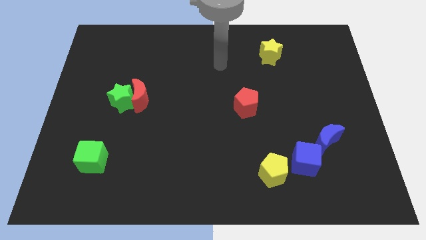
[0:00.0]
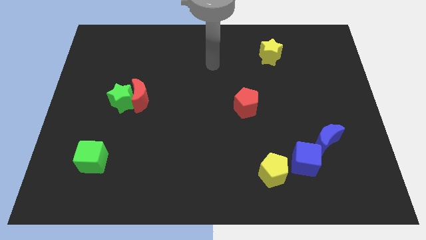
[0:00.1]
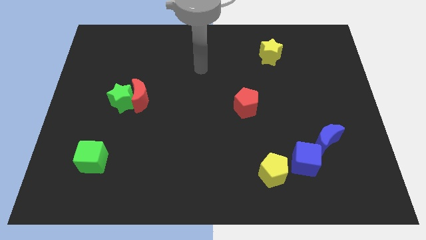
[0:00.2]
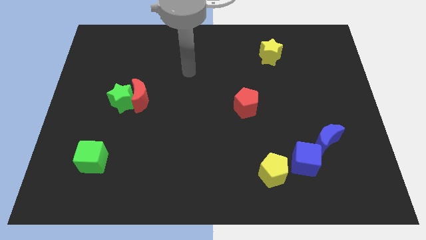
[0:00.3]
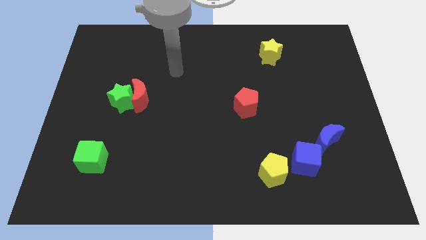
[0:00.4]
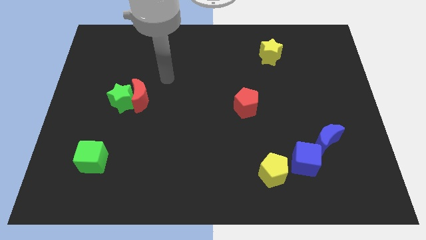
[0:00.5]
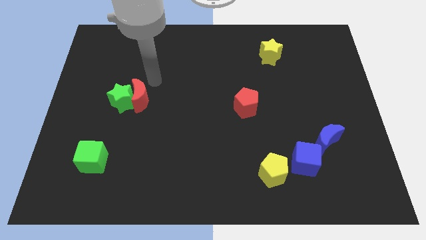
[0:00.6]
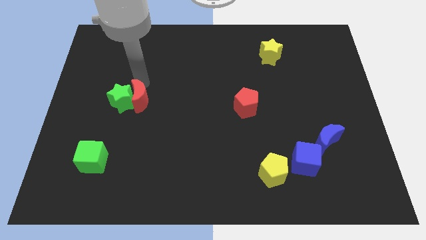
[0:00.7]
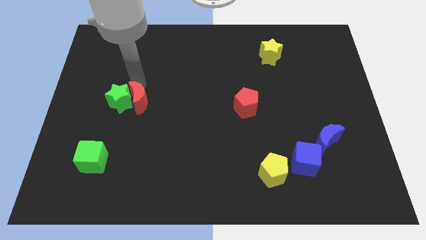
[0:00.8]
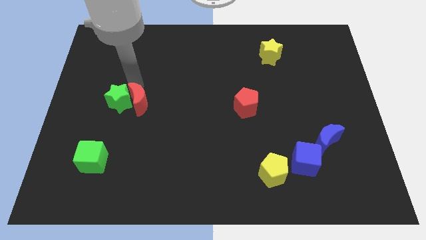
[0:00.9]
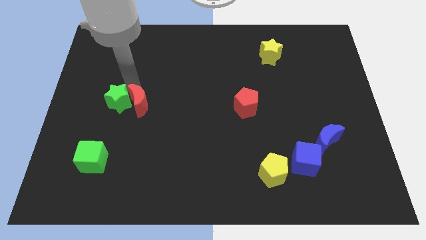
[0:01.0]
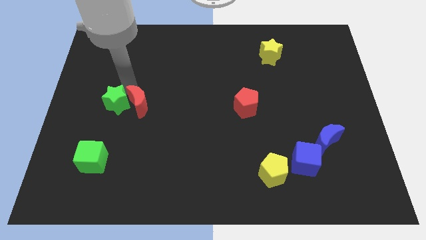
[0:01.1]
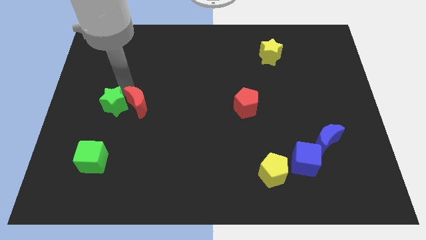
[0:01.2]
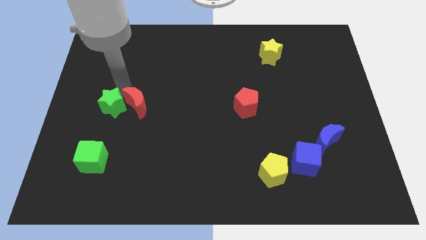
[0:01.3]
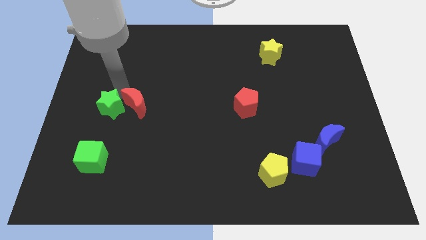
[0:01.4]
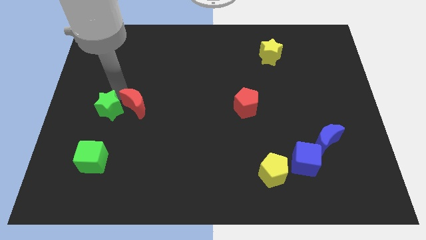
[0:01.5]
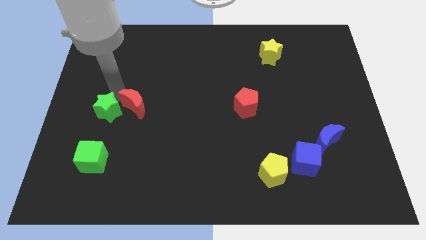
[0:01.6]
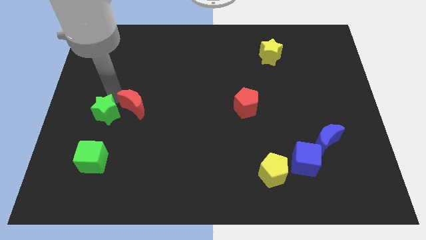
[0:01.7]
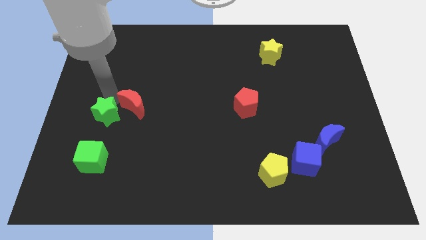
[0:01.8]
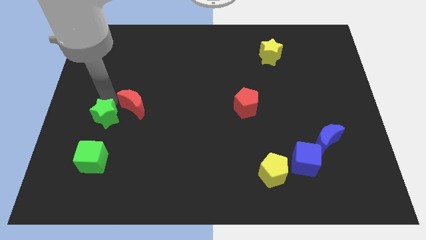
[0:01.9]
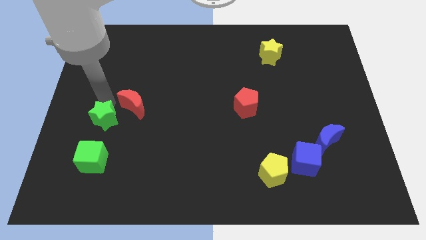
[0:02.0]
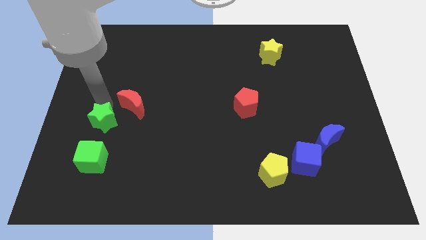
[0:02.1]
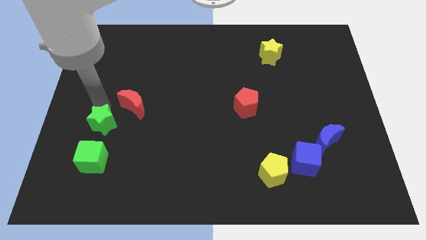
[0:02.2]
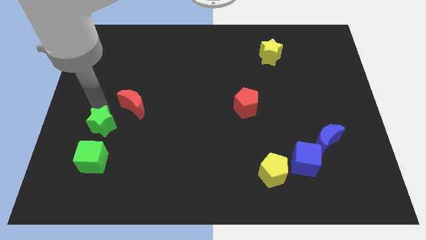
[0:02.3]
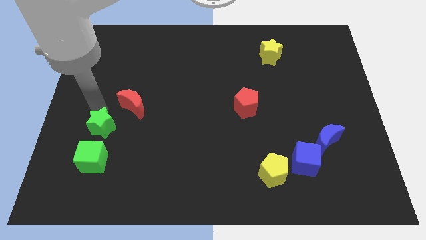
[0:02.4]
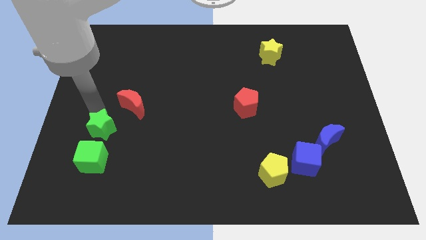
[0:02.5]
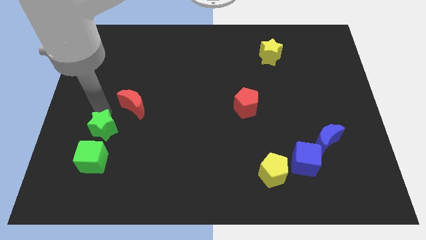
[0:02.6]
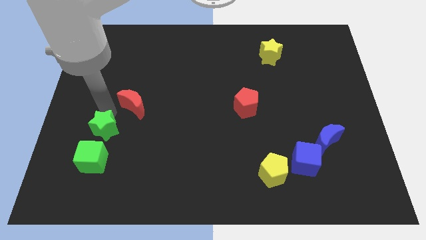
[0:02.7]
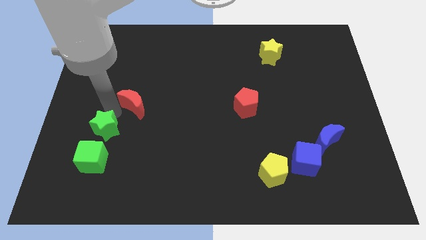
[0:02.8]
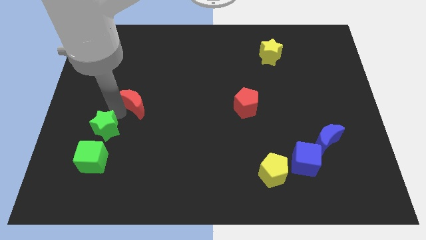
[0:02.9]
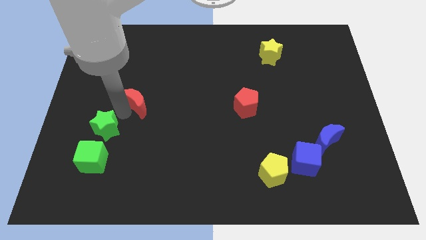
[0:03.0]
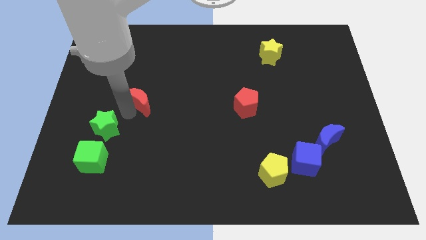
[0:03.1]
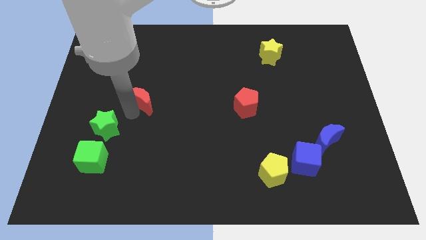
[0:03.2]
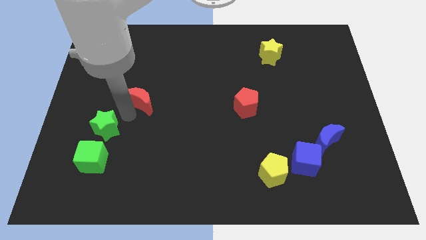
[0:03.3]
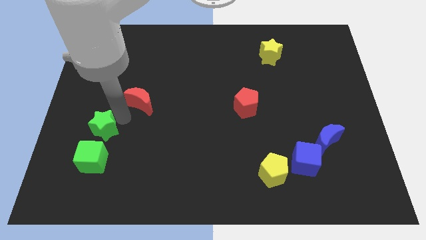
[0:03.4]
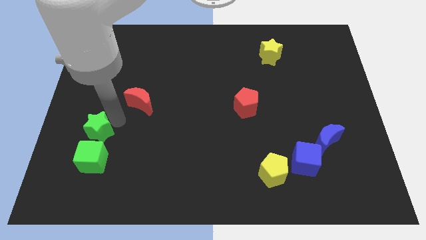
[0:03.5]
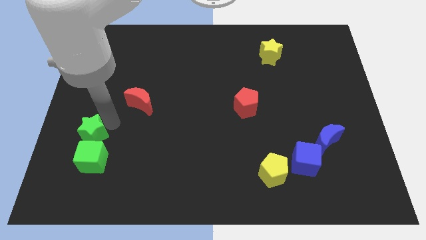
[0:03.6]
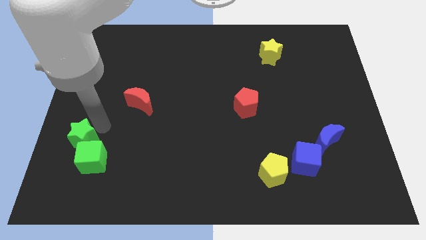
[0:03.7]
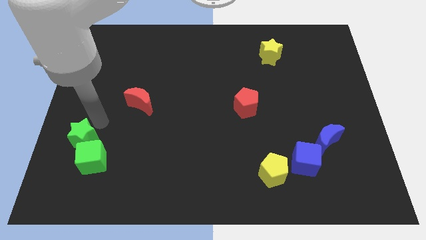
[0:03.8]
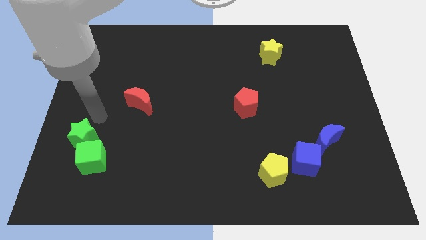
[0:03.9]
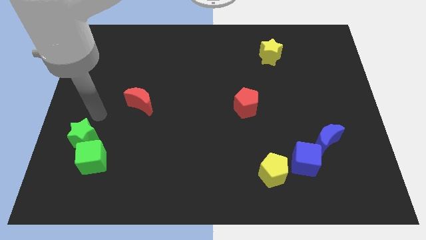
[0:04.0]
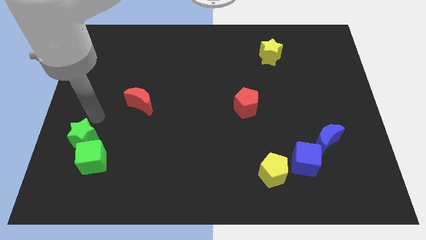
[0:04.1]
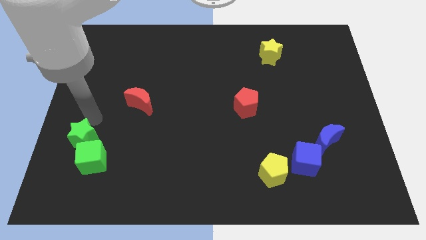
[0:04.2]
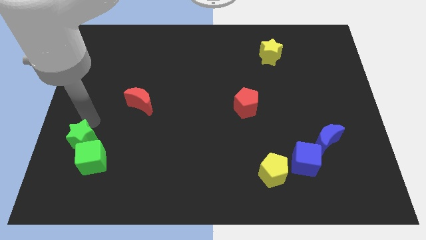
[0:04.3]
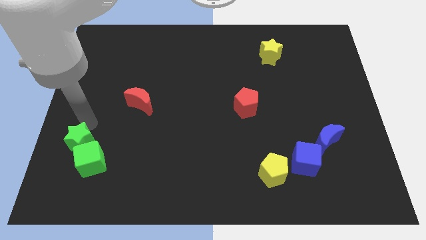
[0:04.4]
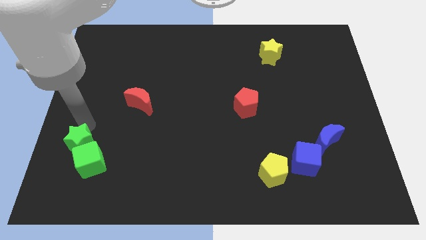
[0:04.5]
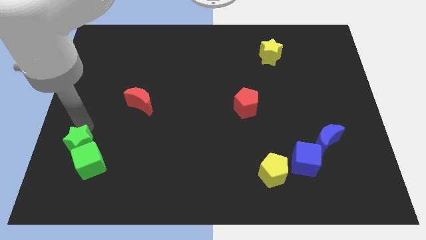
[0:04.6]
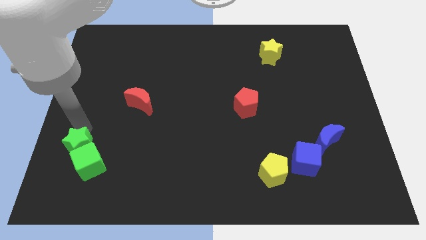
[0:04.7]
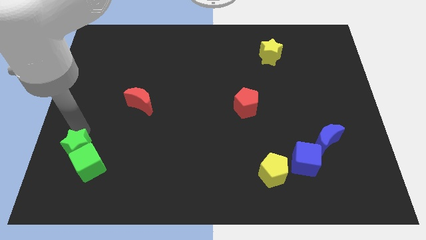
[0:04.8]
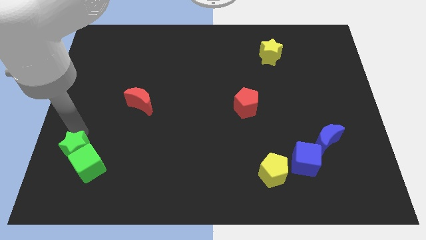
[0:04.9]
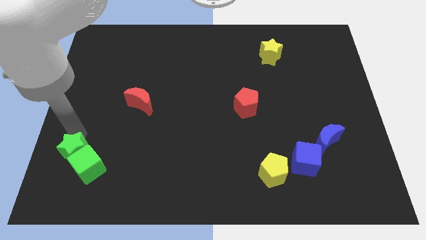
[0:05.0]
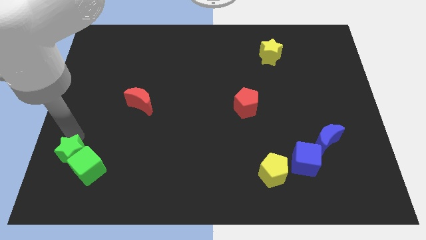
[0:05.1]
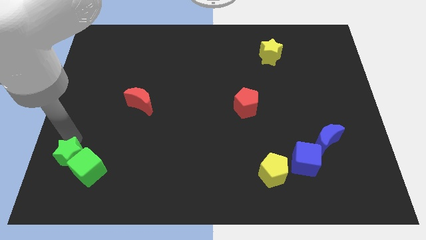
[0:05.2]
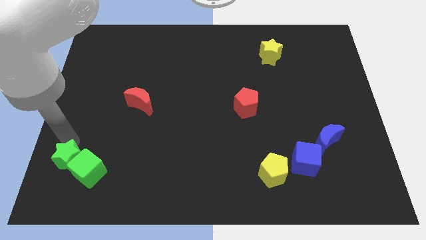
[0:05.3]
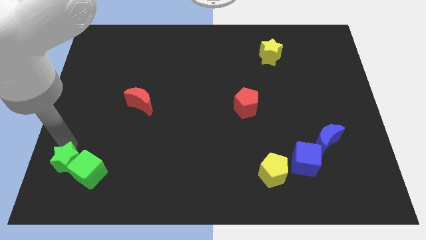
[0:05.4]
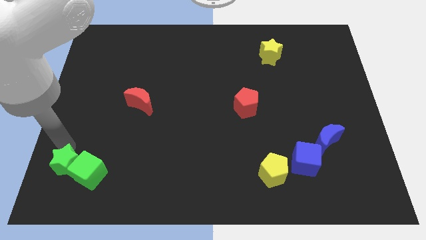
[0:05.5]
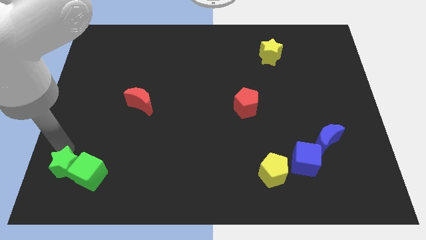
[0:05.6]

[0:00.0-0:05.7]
move the green star to the bottom left of the board
